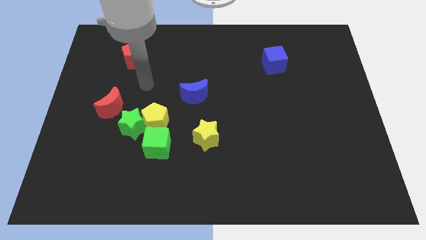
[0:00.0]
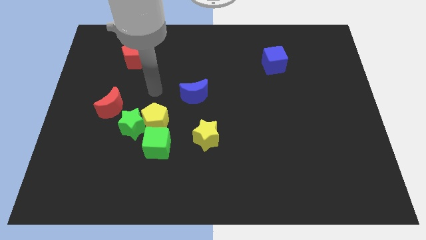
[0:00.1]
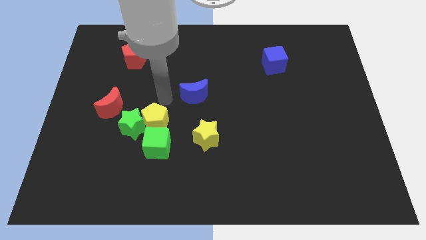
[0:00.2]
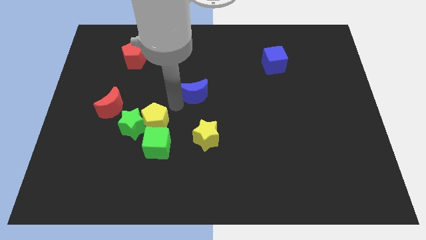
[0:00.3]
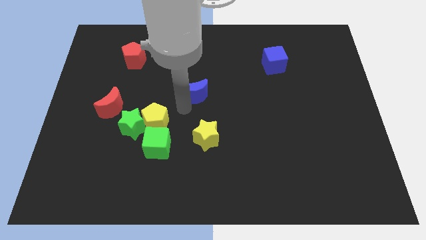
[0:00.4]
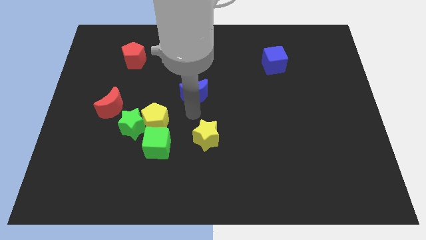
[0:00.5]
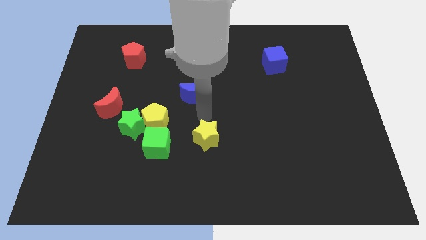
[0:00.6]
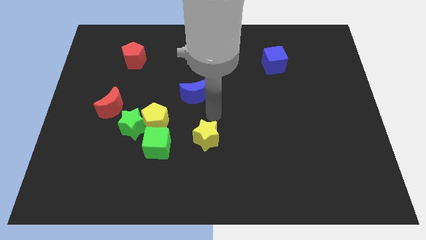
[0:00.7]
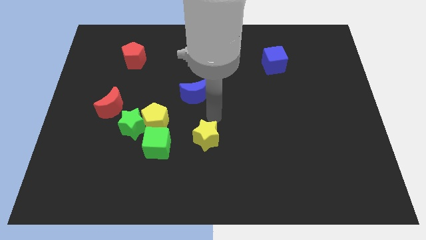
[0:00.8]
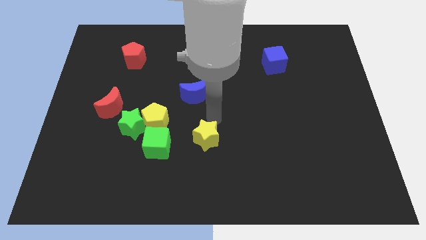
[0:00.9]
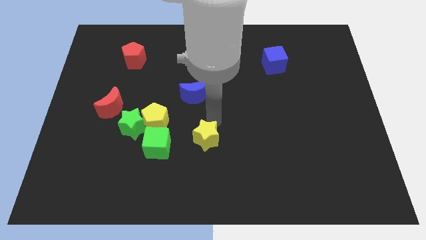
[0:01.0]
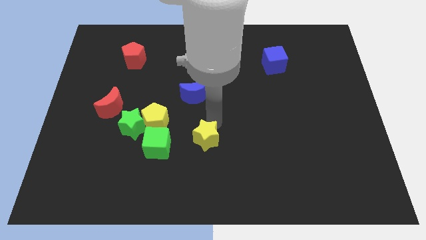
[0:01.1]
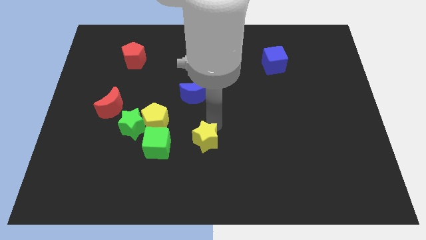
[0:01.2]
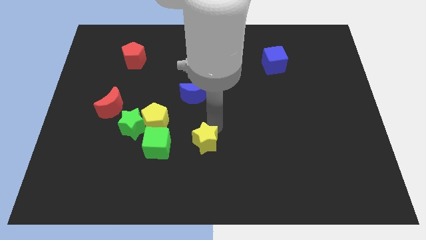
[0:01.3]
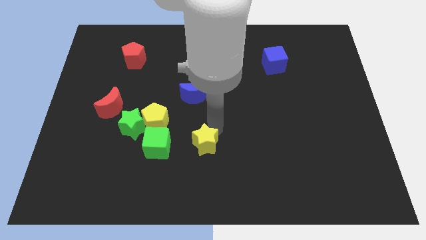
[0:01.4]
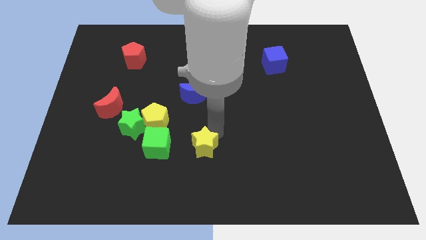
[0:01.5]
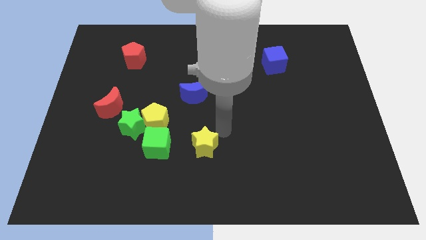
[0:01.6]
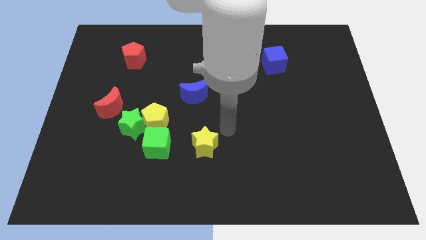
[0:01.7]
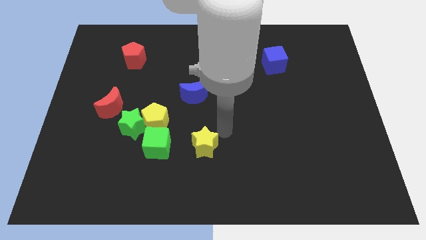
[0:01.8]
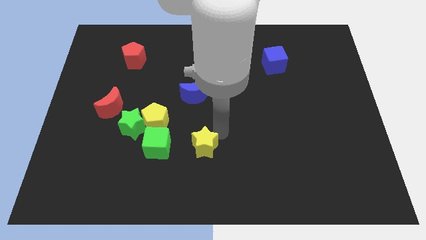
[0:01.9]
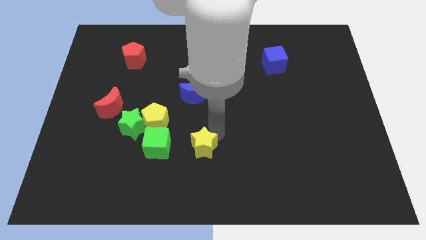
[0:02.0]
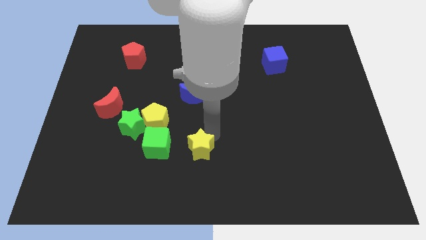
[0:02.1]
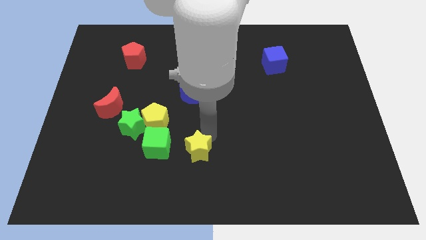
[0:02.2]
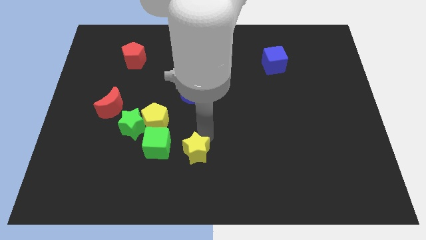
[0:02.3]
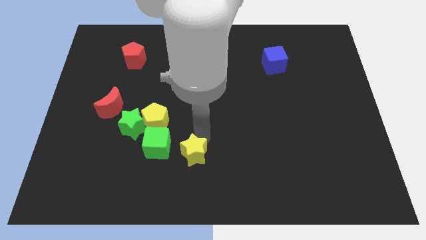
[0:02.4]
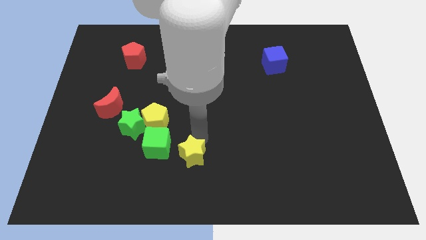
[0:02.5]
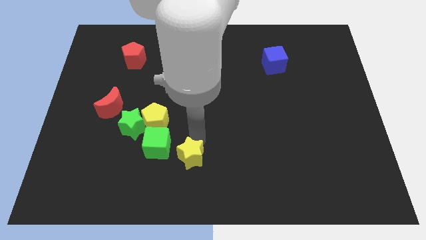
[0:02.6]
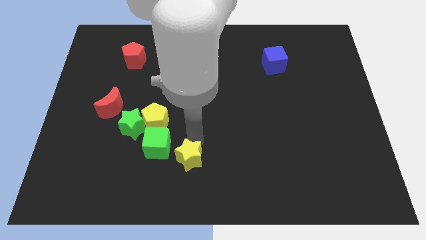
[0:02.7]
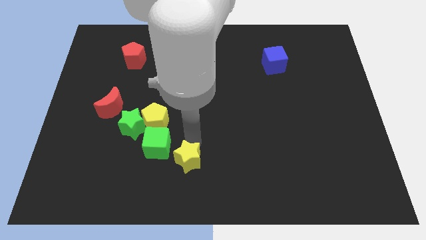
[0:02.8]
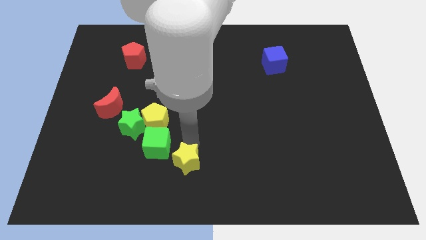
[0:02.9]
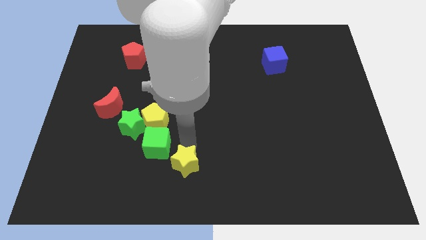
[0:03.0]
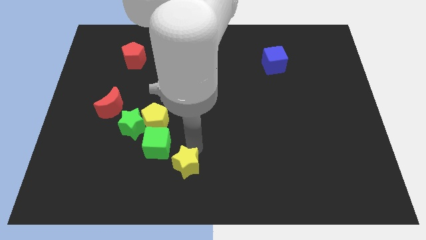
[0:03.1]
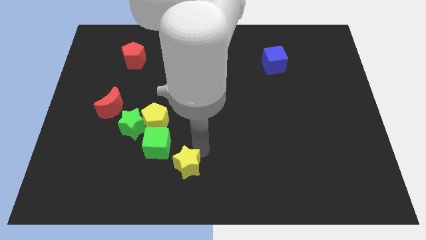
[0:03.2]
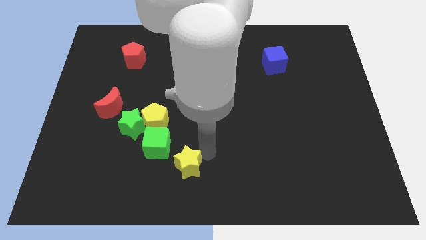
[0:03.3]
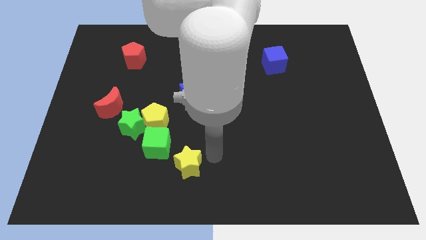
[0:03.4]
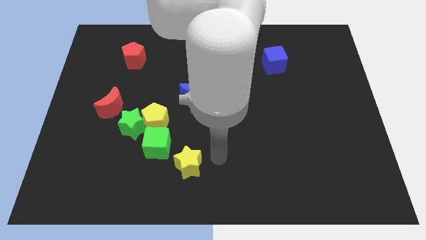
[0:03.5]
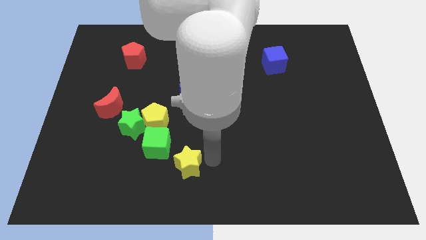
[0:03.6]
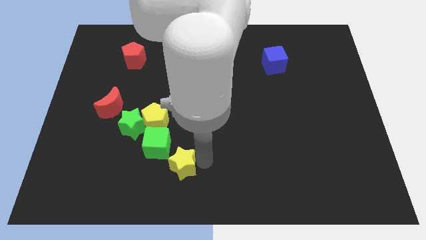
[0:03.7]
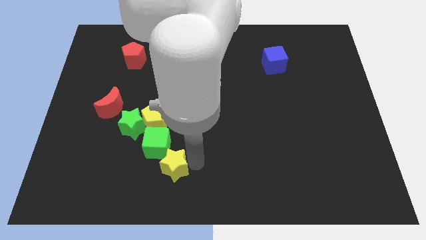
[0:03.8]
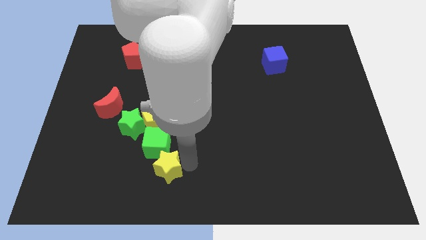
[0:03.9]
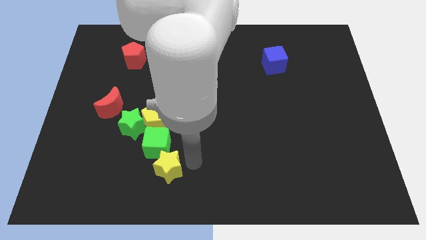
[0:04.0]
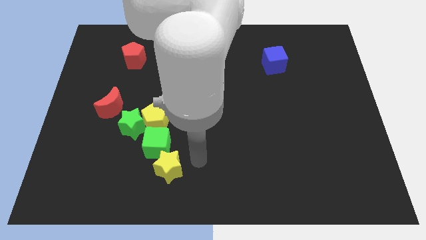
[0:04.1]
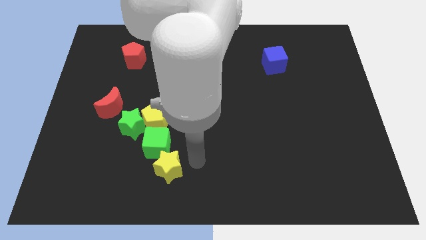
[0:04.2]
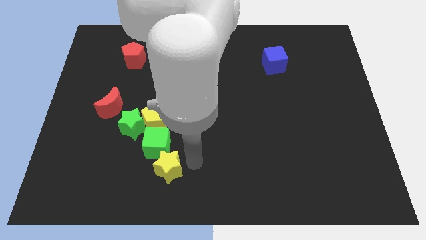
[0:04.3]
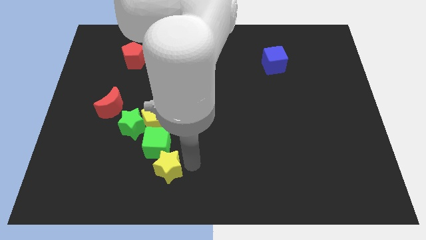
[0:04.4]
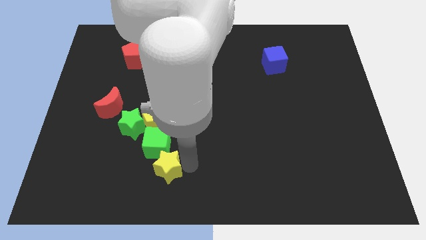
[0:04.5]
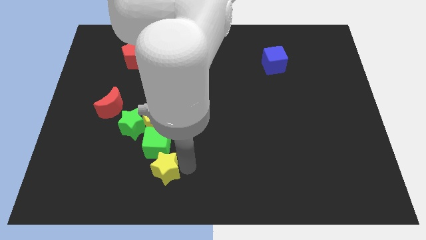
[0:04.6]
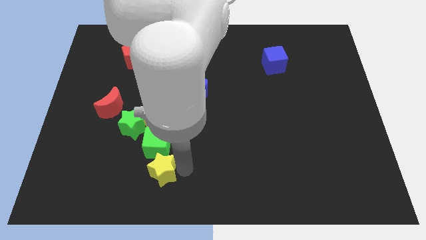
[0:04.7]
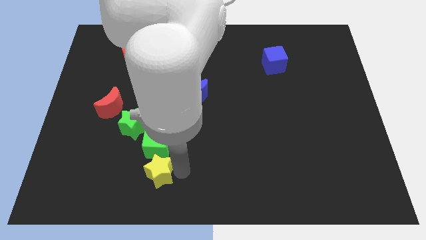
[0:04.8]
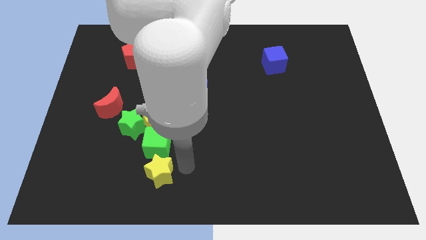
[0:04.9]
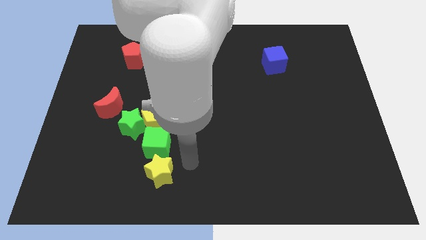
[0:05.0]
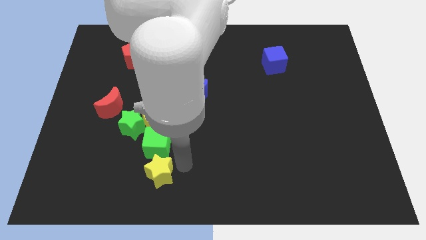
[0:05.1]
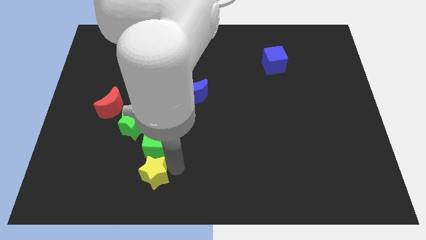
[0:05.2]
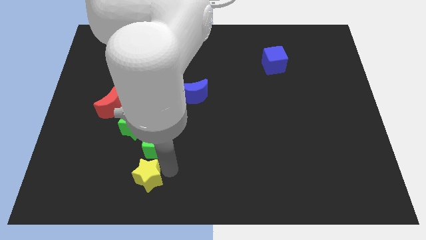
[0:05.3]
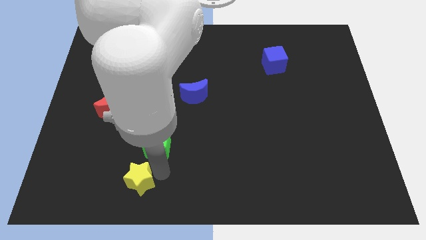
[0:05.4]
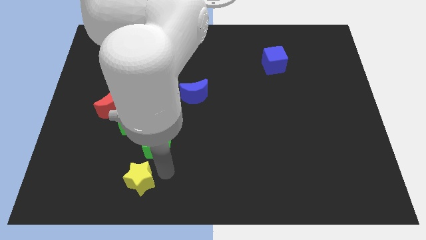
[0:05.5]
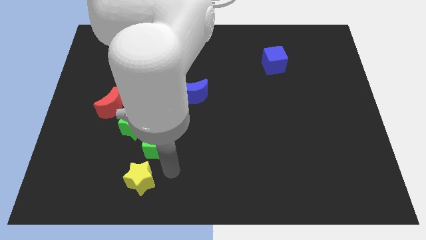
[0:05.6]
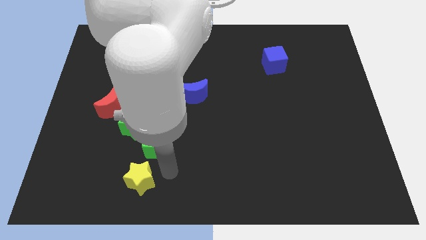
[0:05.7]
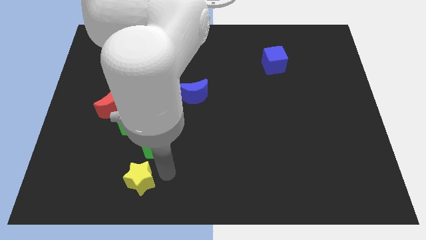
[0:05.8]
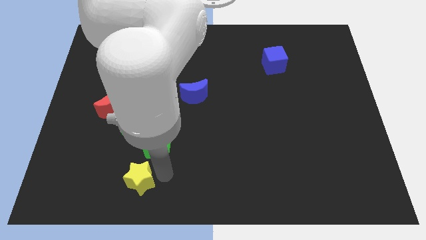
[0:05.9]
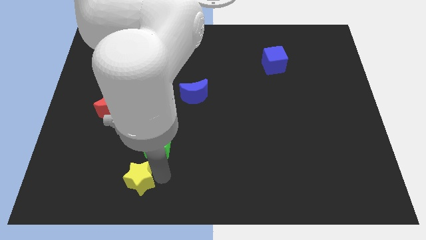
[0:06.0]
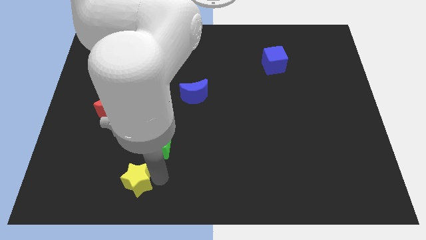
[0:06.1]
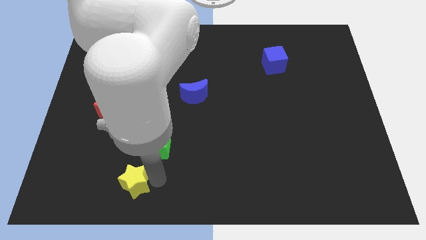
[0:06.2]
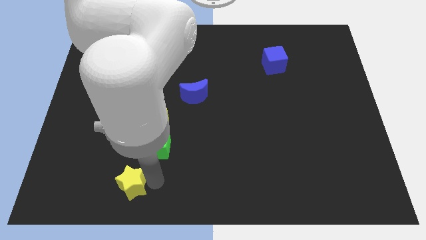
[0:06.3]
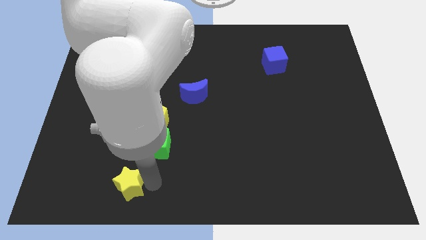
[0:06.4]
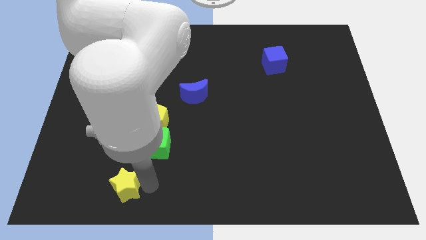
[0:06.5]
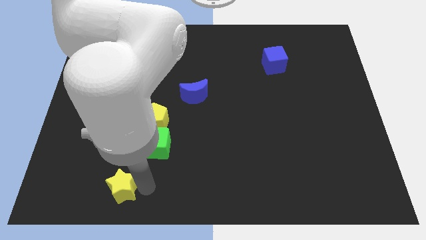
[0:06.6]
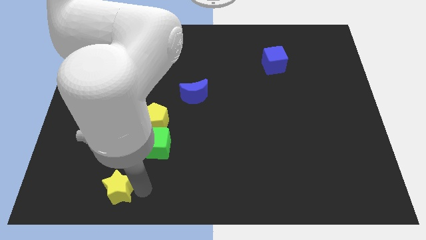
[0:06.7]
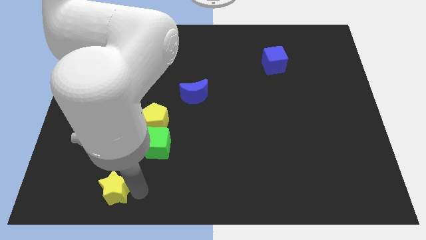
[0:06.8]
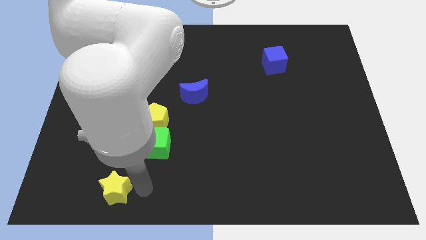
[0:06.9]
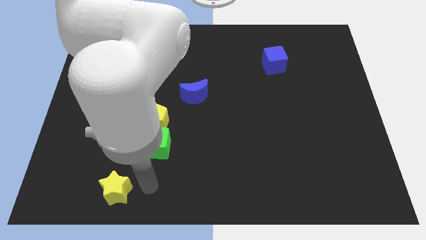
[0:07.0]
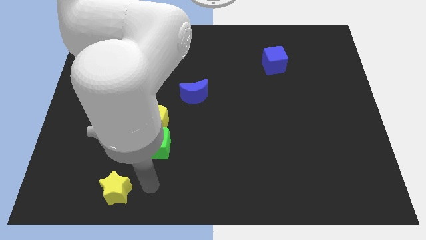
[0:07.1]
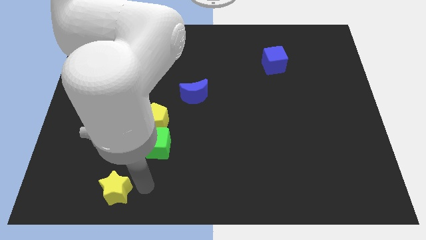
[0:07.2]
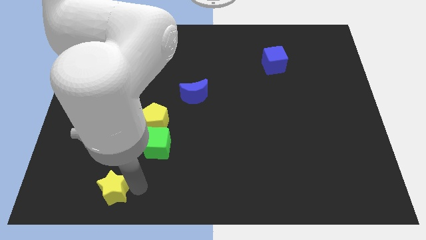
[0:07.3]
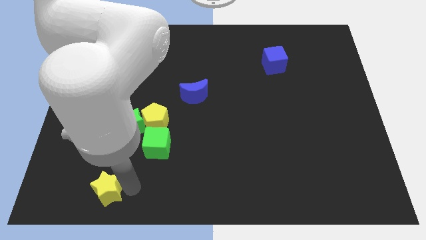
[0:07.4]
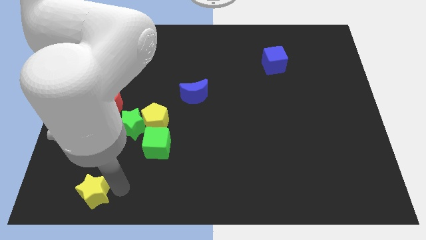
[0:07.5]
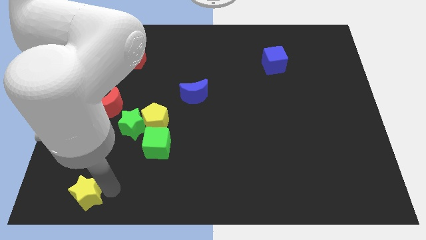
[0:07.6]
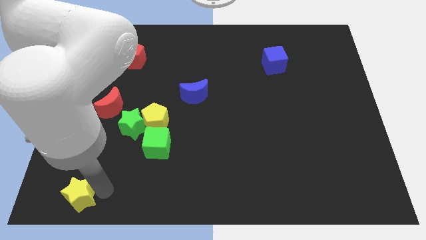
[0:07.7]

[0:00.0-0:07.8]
move the yellow star to the bottom left of the board
